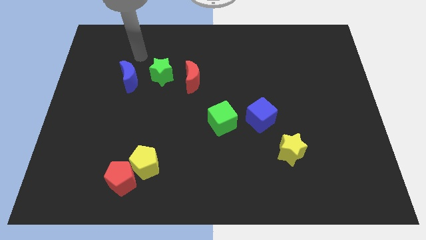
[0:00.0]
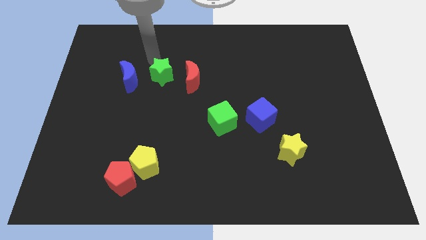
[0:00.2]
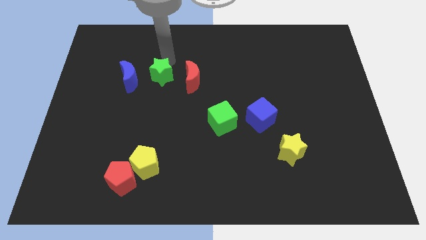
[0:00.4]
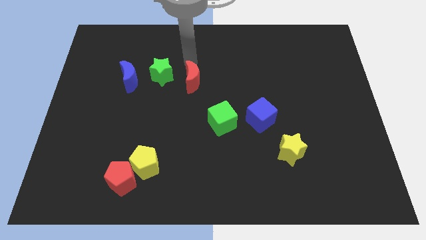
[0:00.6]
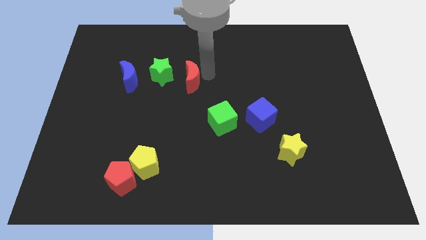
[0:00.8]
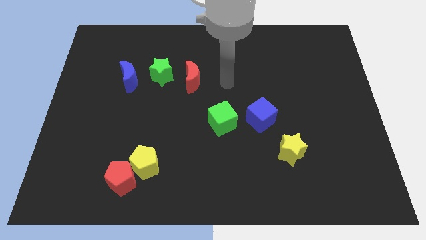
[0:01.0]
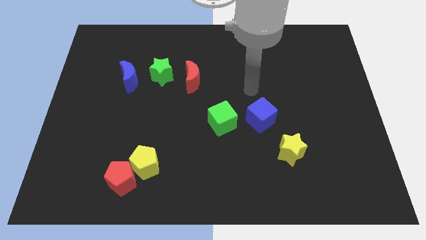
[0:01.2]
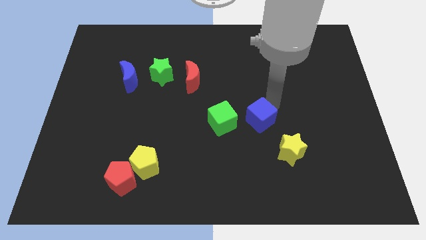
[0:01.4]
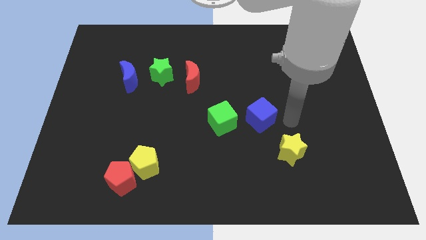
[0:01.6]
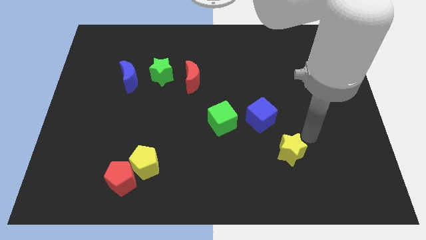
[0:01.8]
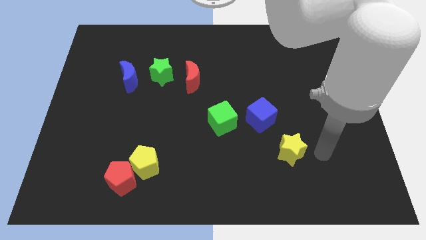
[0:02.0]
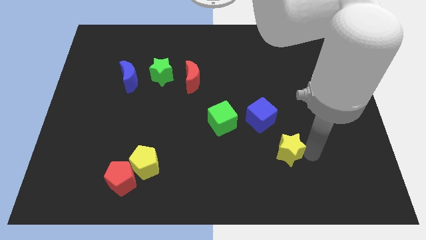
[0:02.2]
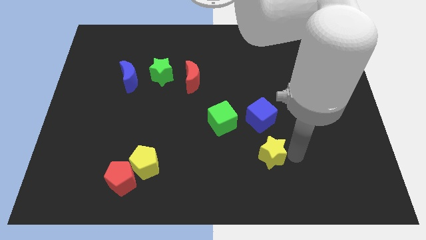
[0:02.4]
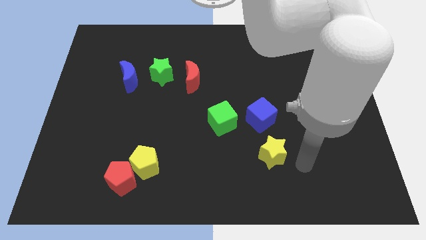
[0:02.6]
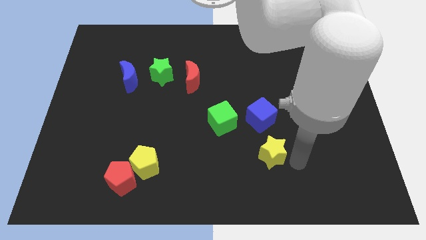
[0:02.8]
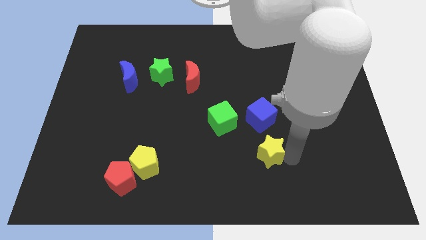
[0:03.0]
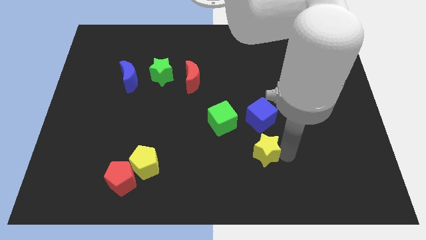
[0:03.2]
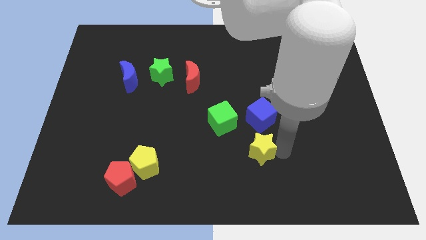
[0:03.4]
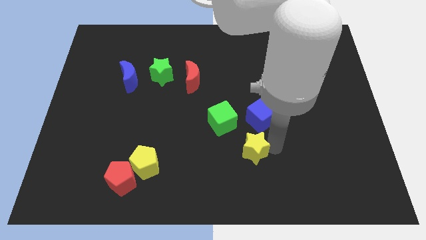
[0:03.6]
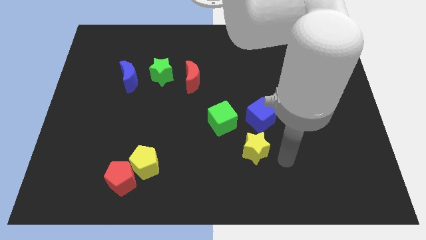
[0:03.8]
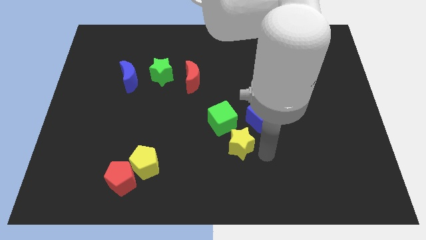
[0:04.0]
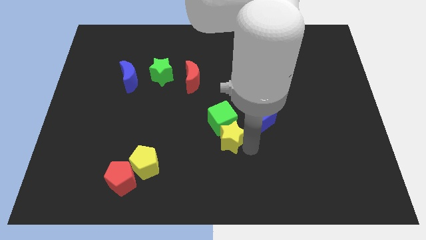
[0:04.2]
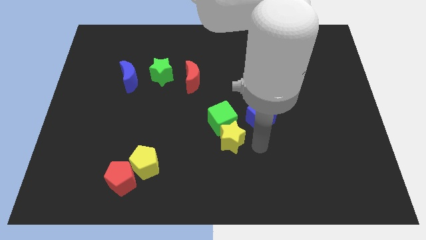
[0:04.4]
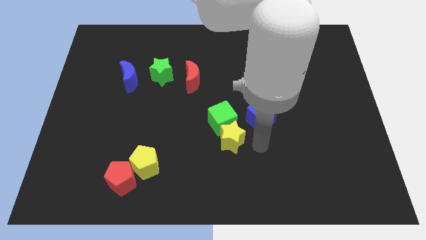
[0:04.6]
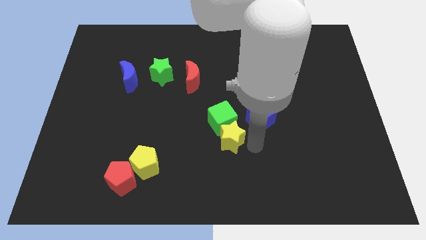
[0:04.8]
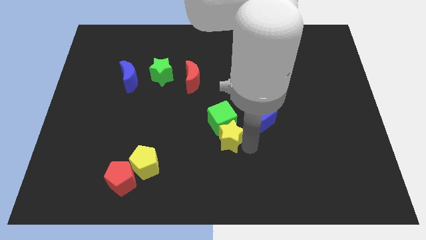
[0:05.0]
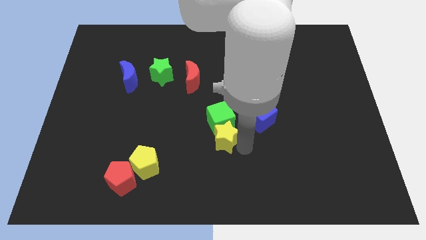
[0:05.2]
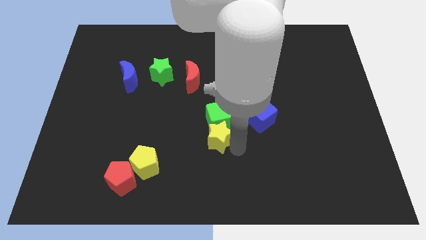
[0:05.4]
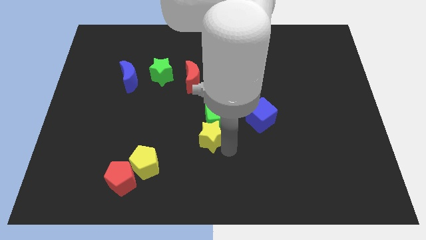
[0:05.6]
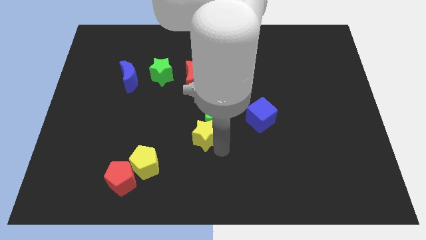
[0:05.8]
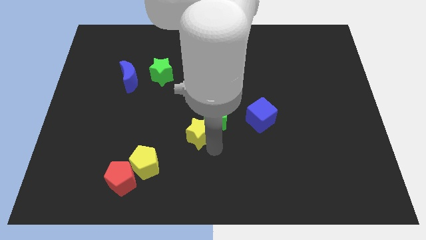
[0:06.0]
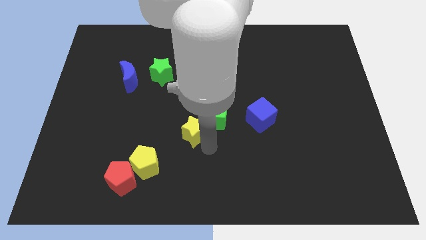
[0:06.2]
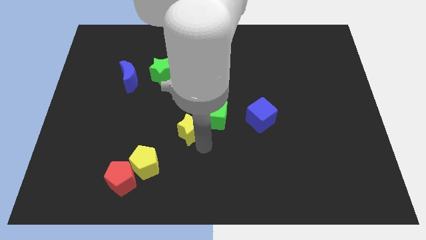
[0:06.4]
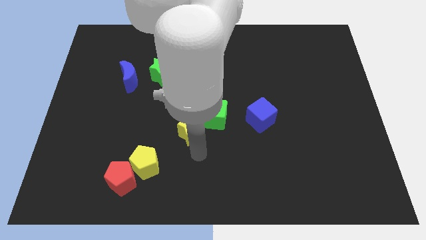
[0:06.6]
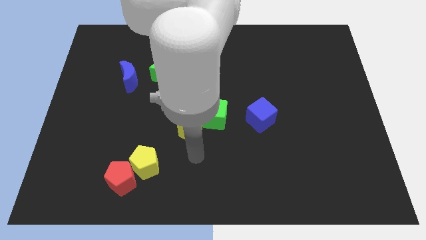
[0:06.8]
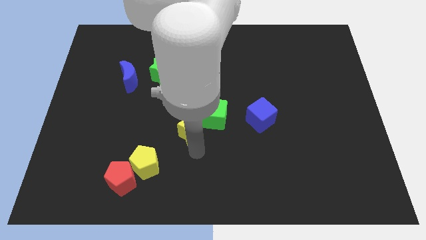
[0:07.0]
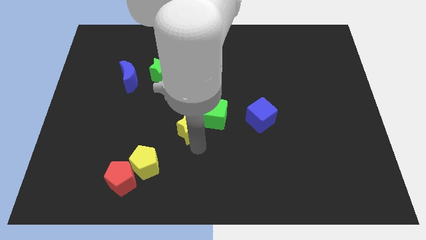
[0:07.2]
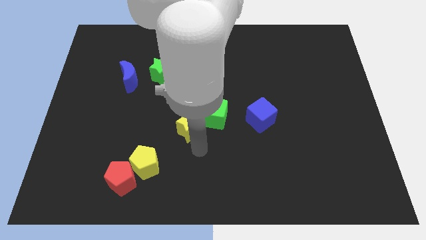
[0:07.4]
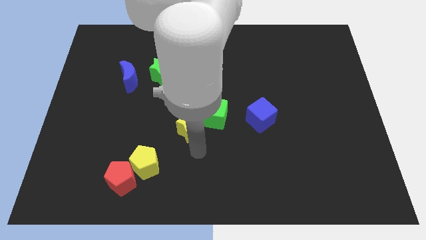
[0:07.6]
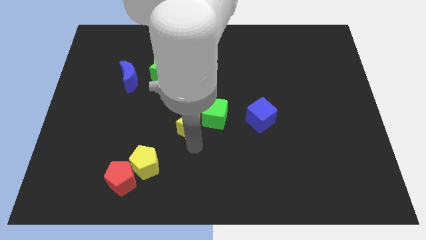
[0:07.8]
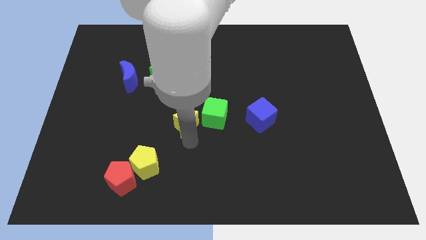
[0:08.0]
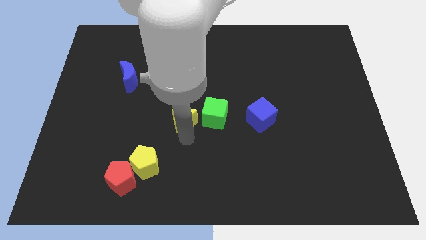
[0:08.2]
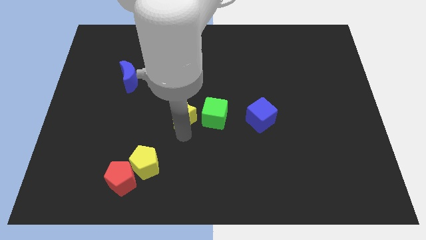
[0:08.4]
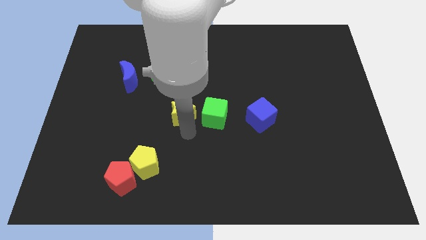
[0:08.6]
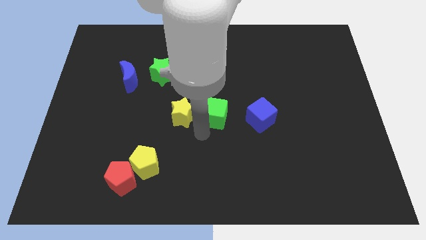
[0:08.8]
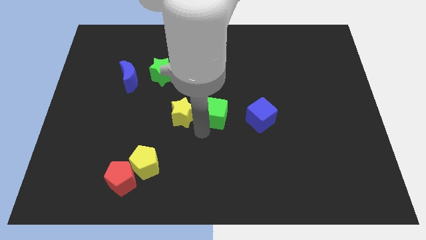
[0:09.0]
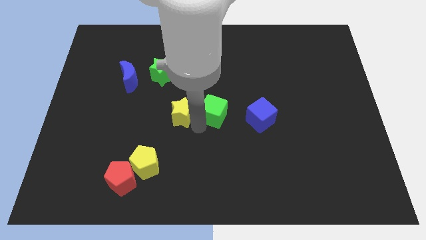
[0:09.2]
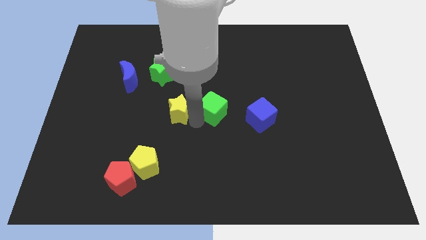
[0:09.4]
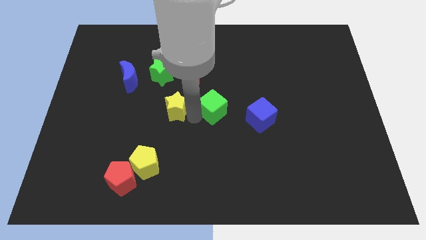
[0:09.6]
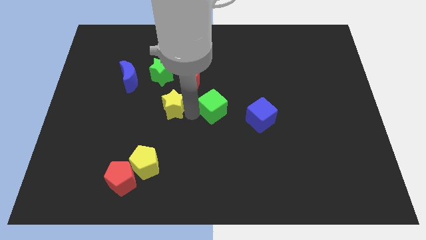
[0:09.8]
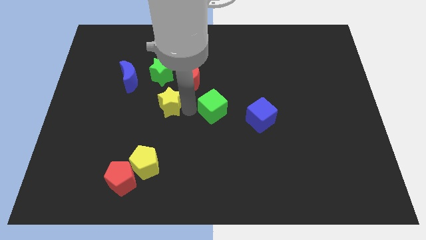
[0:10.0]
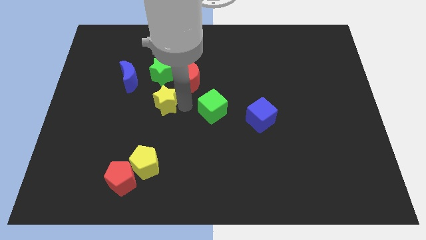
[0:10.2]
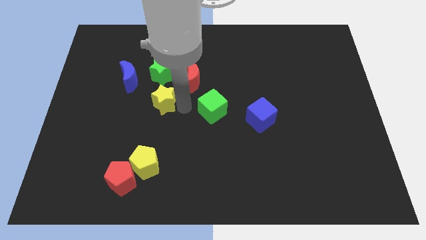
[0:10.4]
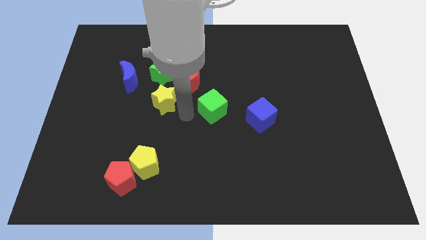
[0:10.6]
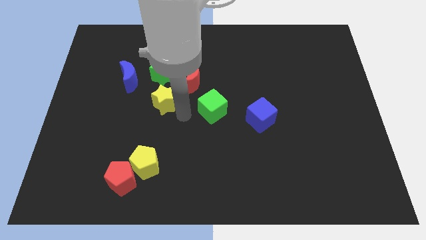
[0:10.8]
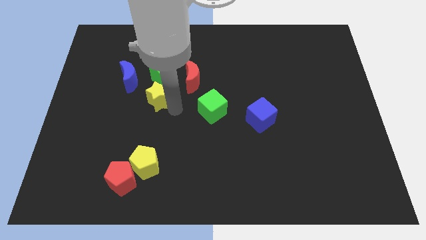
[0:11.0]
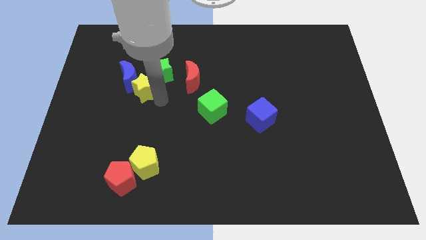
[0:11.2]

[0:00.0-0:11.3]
move the yellow star next to the blue moon

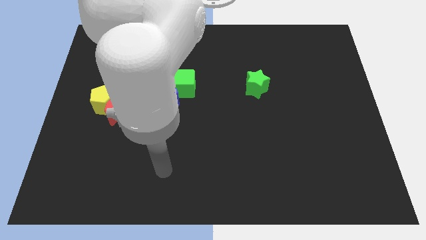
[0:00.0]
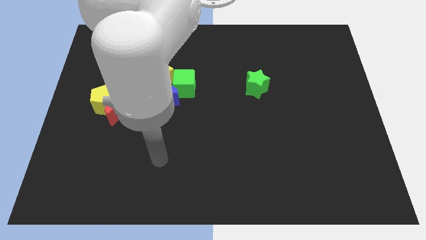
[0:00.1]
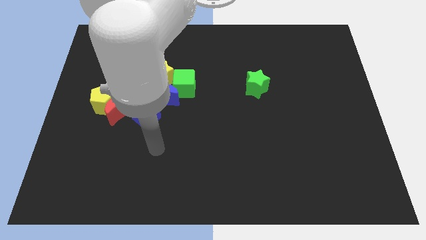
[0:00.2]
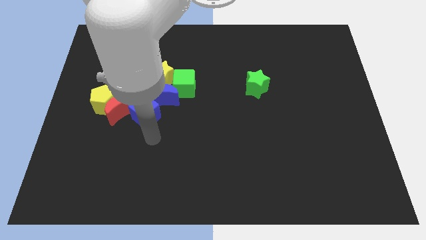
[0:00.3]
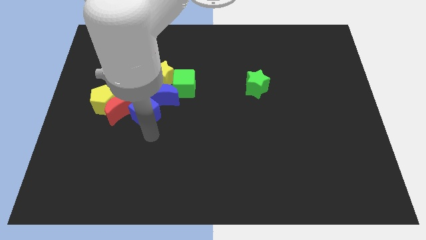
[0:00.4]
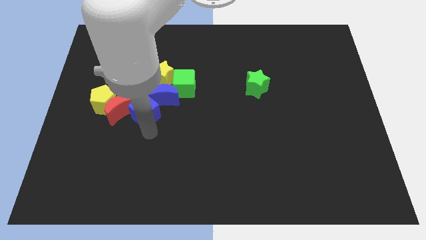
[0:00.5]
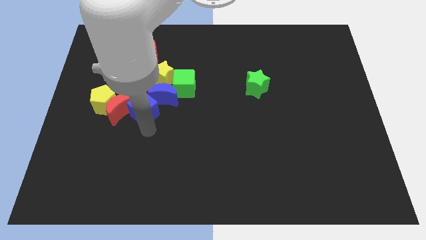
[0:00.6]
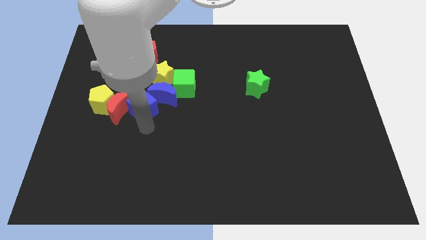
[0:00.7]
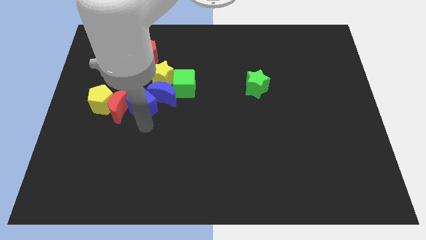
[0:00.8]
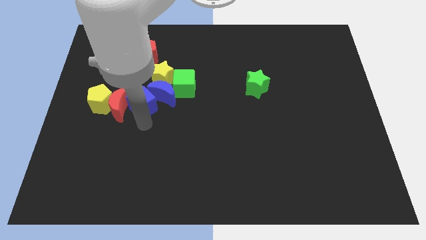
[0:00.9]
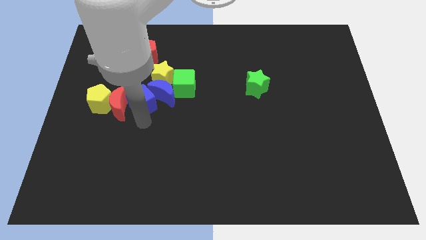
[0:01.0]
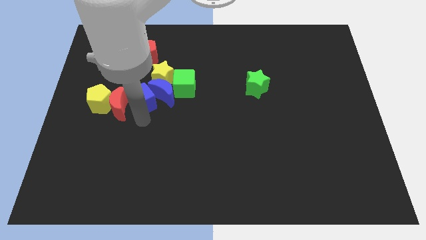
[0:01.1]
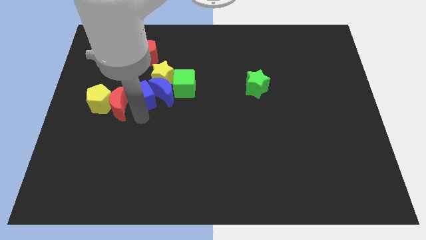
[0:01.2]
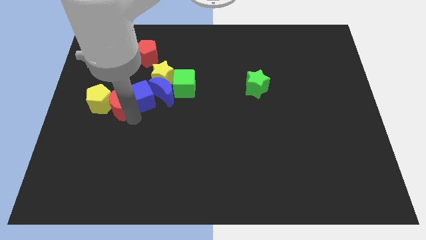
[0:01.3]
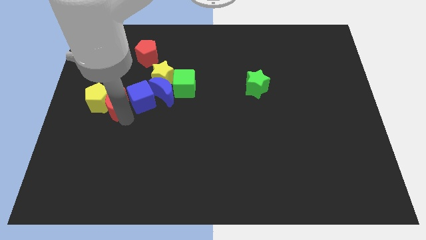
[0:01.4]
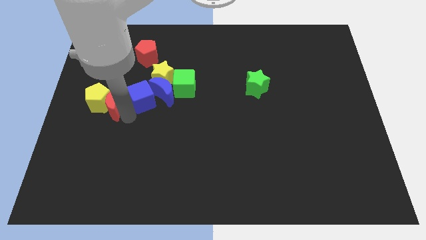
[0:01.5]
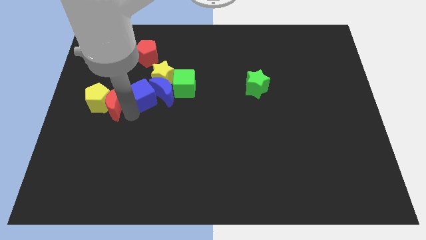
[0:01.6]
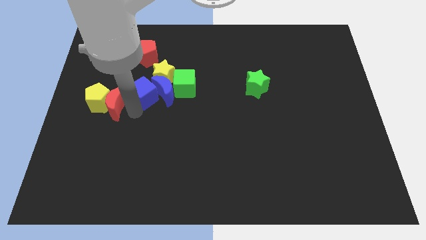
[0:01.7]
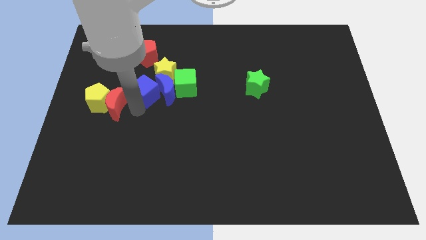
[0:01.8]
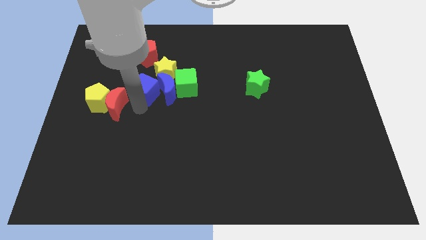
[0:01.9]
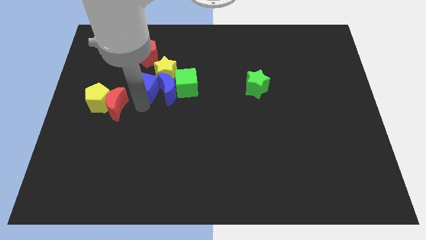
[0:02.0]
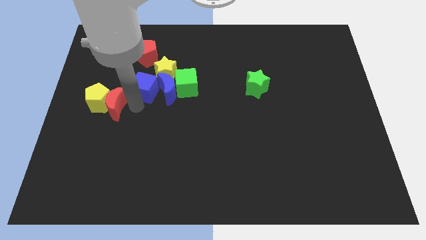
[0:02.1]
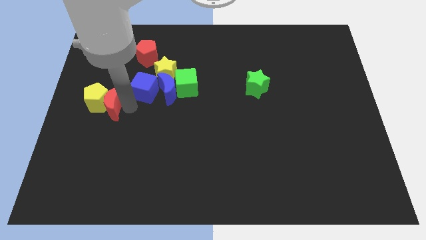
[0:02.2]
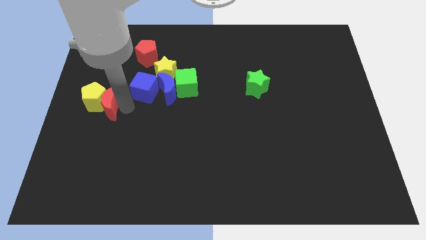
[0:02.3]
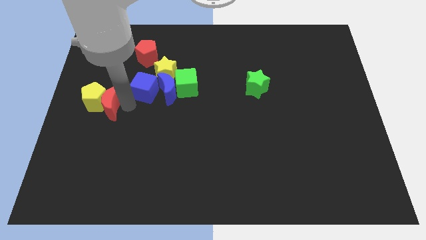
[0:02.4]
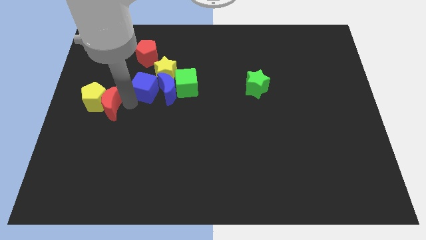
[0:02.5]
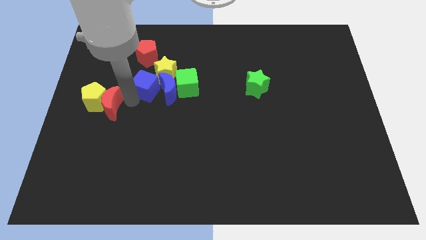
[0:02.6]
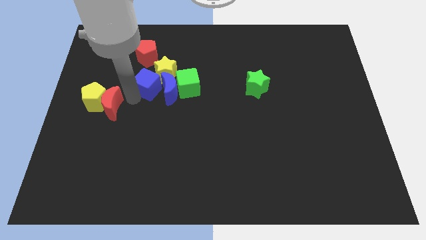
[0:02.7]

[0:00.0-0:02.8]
push the blue cube close to the yellow star

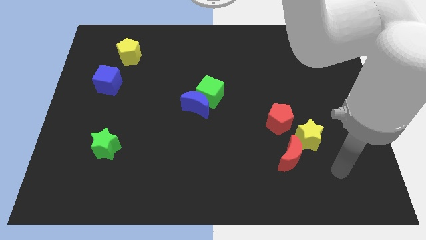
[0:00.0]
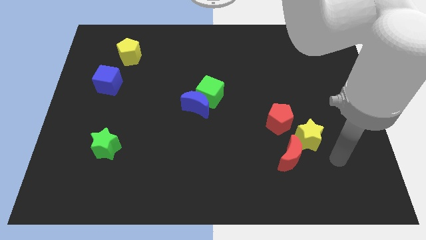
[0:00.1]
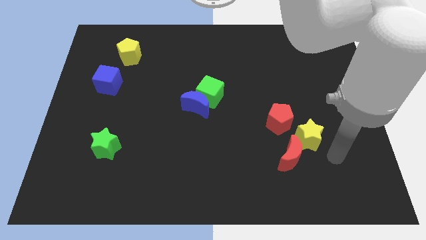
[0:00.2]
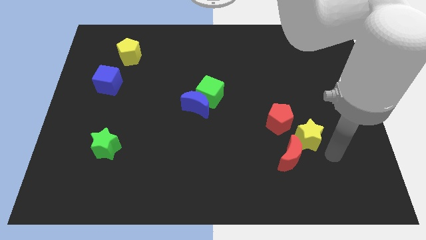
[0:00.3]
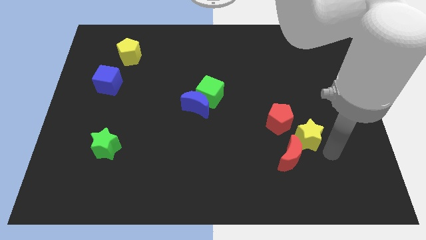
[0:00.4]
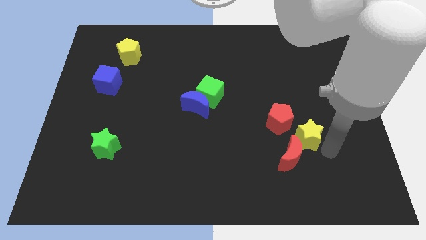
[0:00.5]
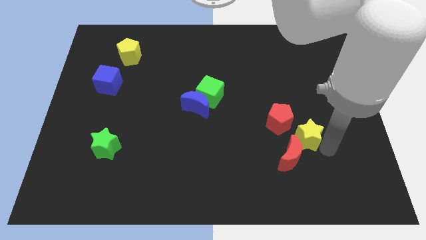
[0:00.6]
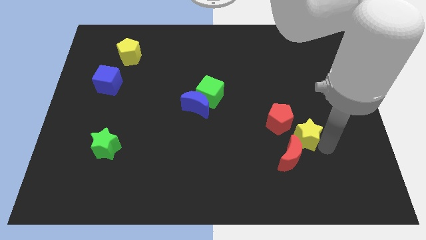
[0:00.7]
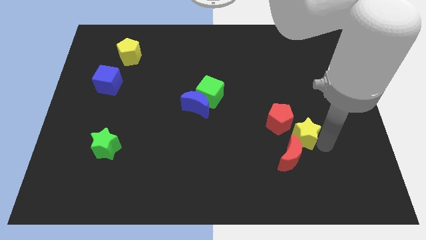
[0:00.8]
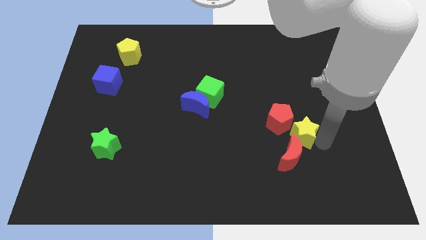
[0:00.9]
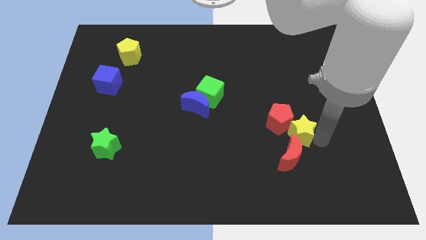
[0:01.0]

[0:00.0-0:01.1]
slide the yellow star close to the red pentagon
